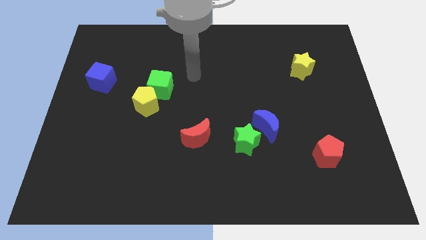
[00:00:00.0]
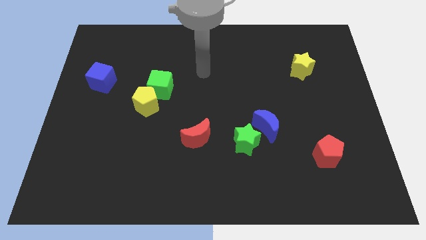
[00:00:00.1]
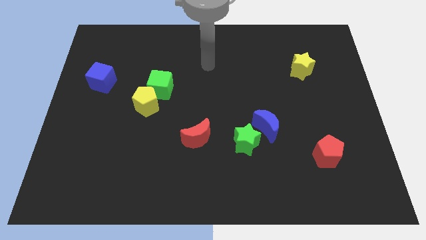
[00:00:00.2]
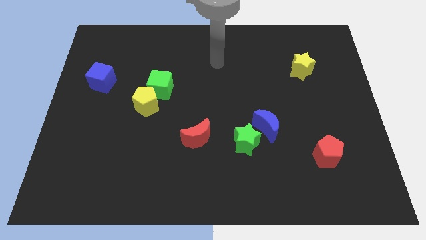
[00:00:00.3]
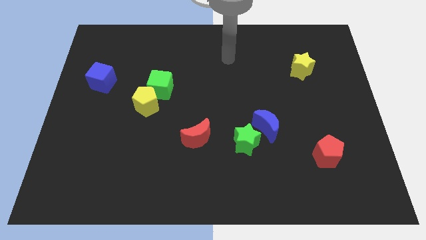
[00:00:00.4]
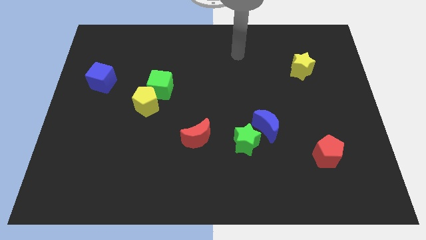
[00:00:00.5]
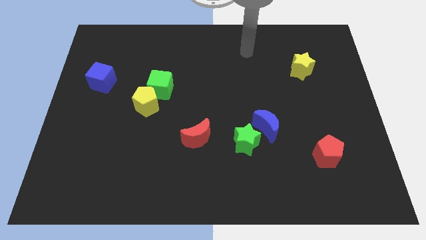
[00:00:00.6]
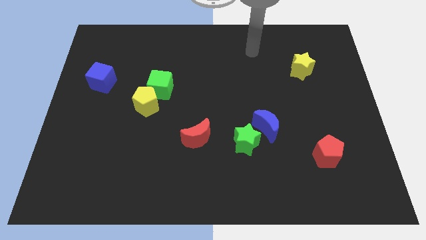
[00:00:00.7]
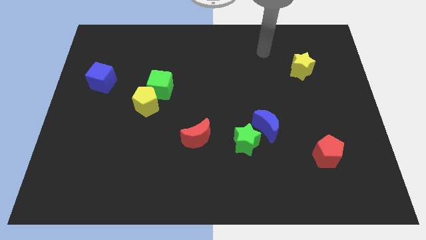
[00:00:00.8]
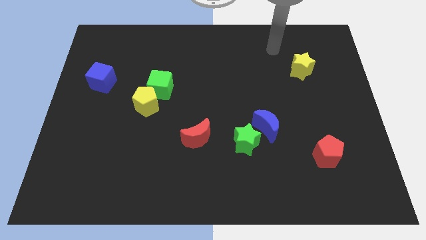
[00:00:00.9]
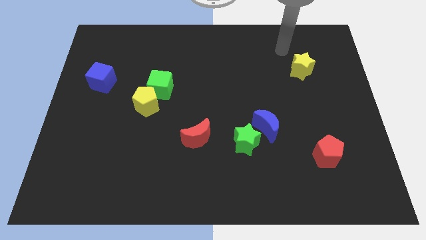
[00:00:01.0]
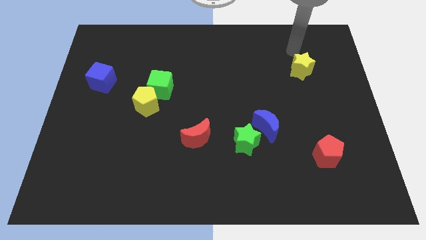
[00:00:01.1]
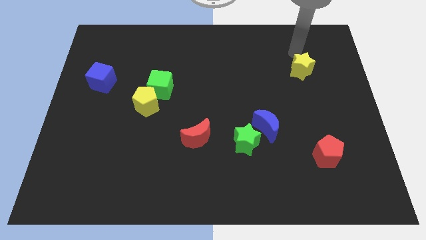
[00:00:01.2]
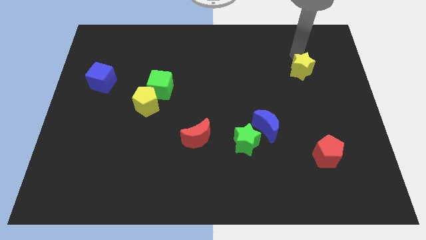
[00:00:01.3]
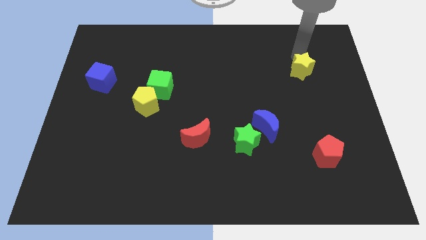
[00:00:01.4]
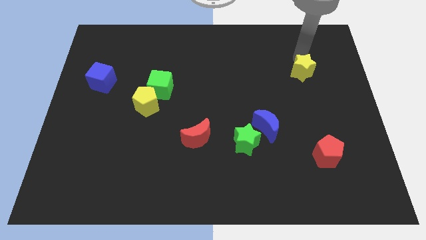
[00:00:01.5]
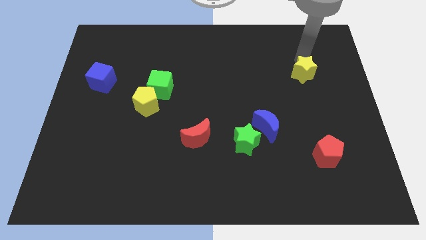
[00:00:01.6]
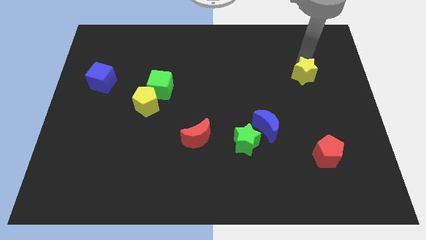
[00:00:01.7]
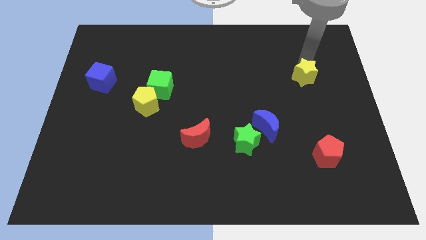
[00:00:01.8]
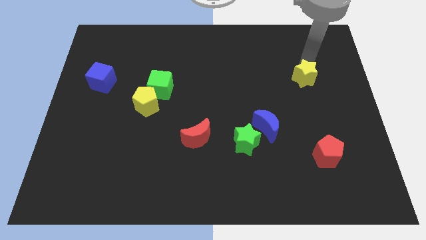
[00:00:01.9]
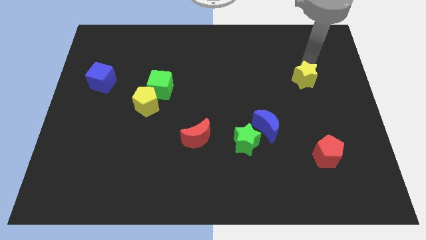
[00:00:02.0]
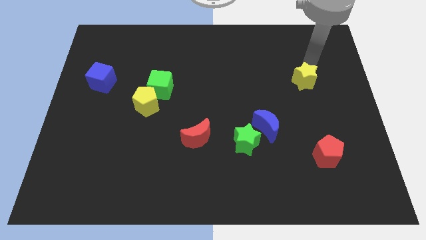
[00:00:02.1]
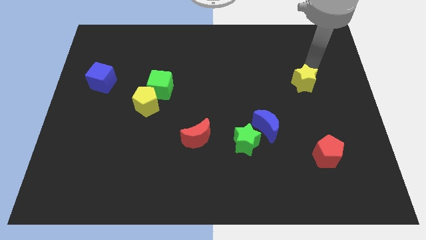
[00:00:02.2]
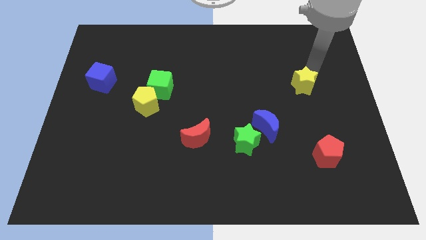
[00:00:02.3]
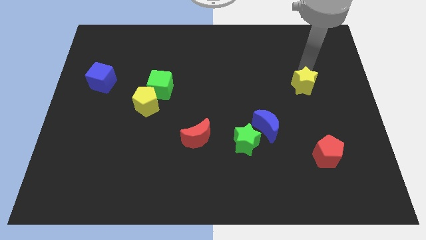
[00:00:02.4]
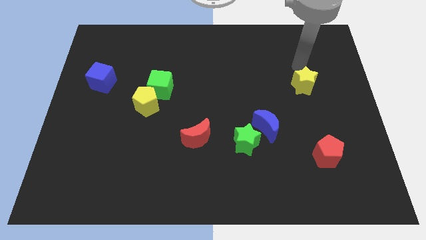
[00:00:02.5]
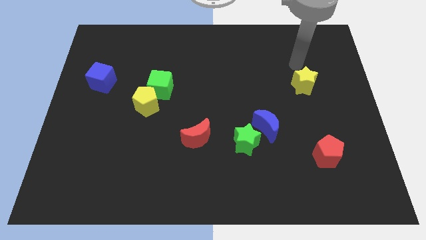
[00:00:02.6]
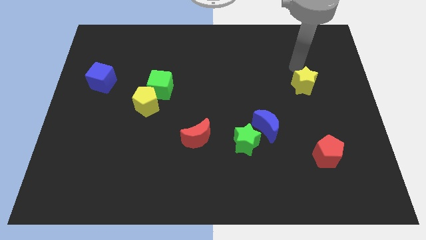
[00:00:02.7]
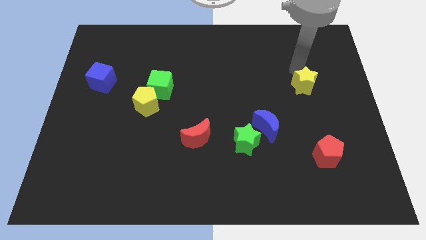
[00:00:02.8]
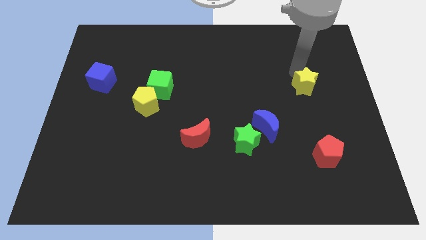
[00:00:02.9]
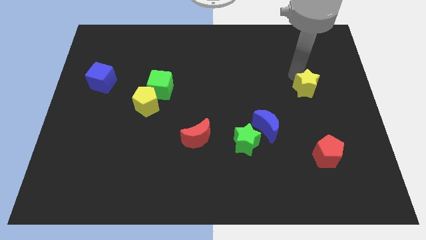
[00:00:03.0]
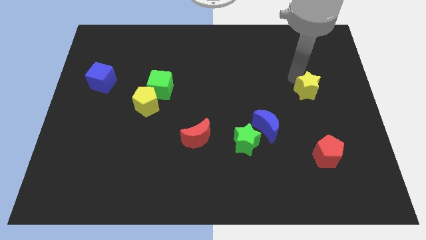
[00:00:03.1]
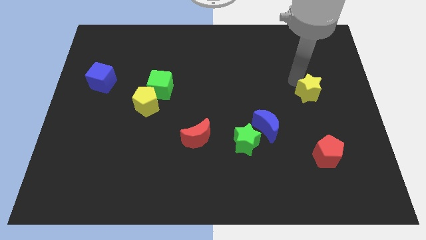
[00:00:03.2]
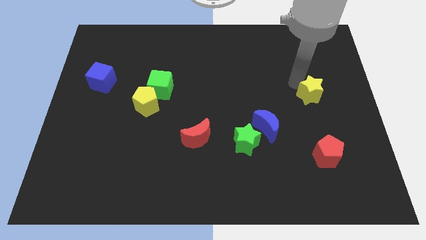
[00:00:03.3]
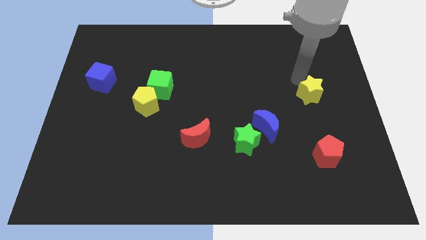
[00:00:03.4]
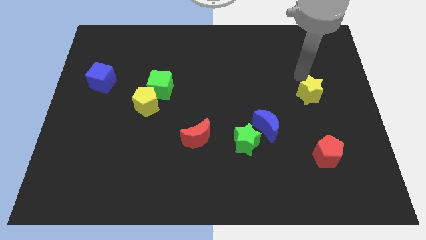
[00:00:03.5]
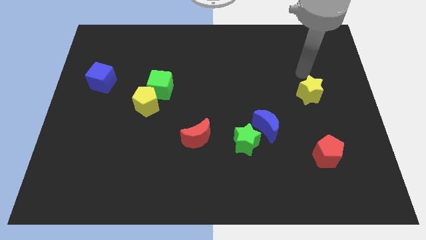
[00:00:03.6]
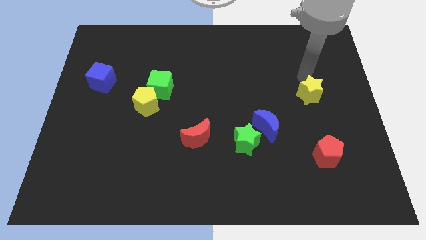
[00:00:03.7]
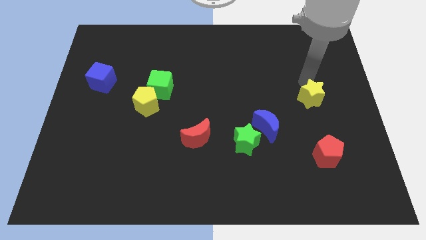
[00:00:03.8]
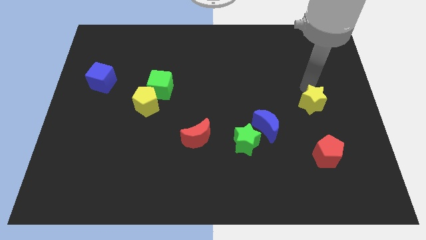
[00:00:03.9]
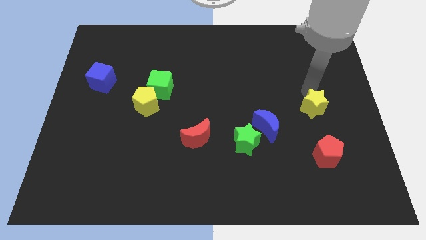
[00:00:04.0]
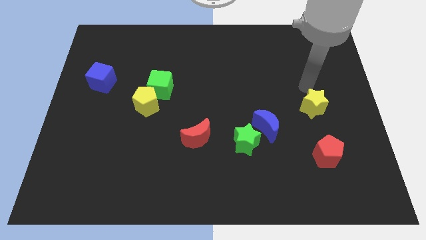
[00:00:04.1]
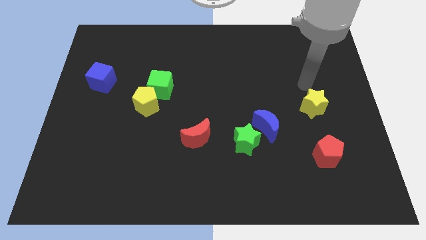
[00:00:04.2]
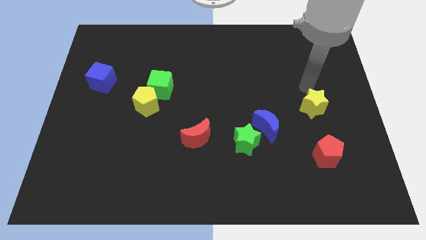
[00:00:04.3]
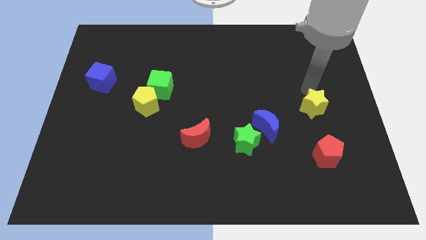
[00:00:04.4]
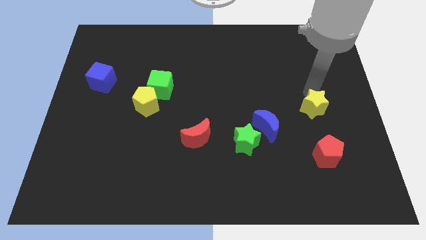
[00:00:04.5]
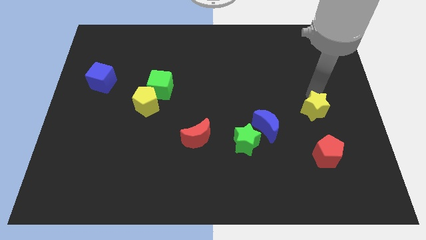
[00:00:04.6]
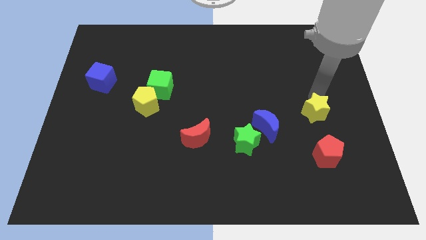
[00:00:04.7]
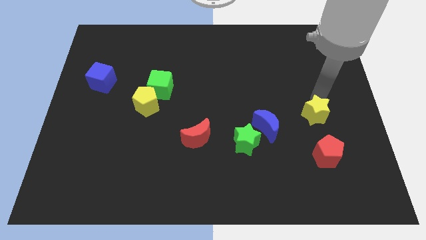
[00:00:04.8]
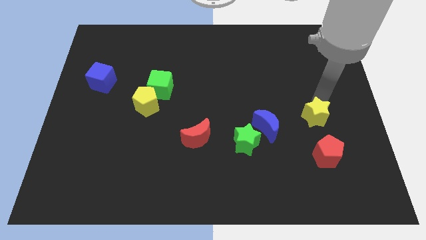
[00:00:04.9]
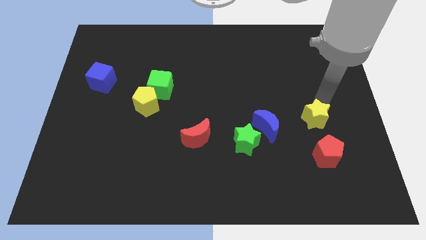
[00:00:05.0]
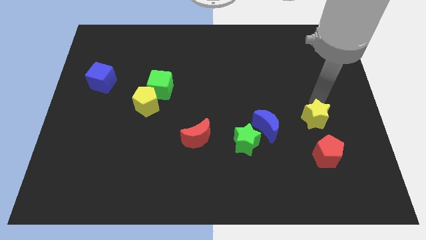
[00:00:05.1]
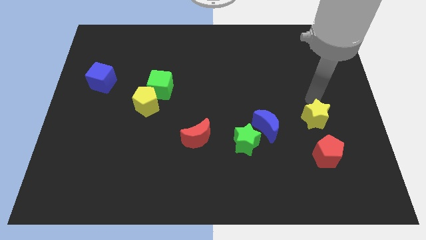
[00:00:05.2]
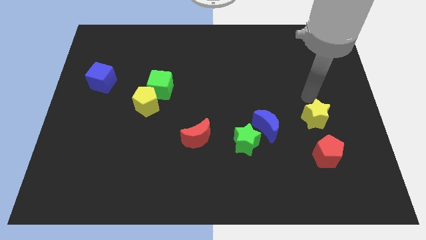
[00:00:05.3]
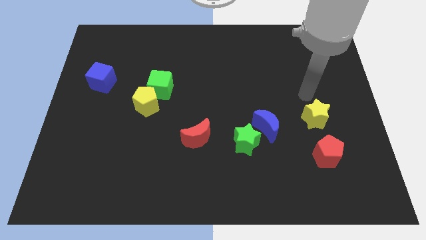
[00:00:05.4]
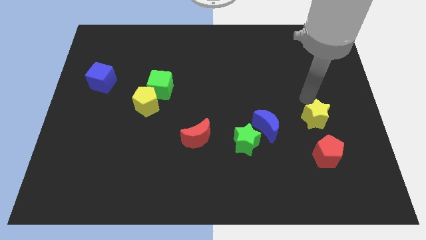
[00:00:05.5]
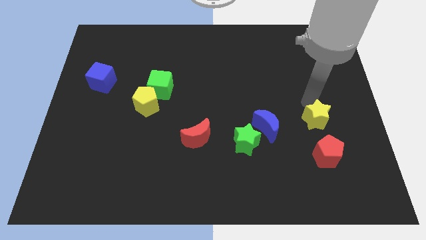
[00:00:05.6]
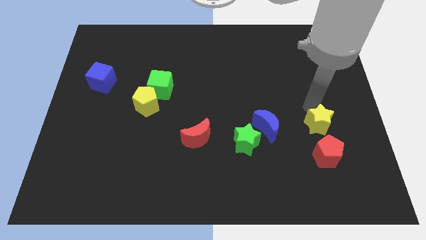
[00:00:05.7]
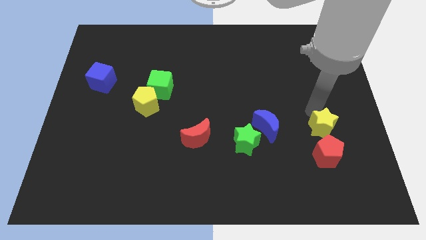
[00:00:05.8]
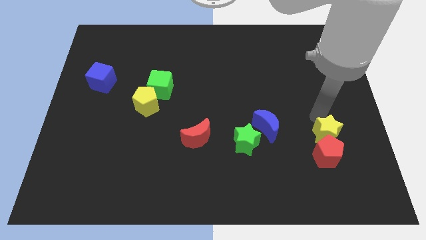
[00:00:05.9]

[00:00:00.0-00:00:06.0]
push the yellow star next to the red pentagon

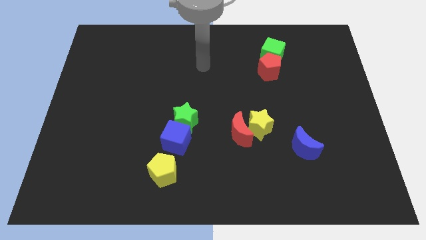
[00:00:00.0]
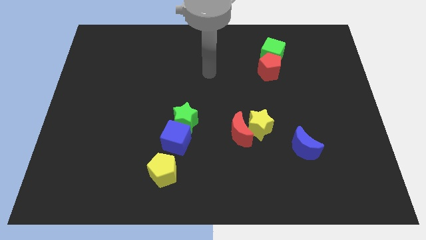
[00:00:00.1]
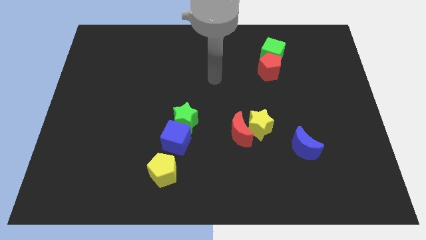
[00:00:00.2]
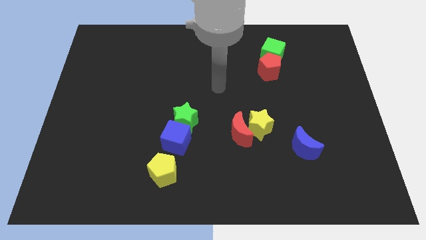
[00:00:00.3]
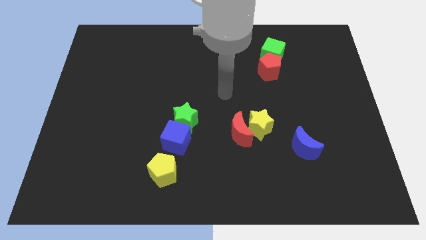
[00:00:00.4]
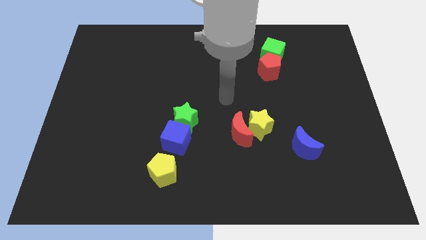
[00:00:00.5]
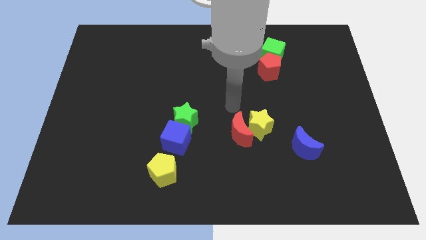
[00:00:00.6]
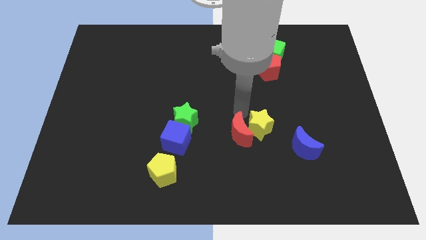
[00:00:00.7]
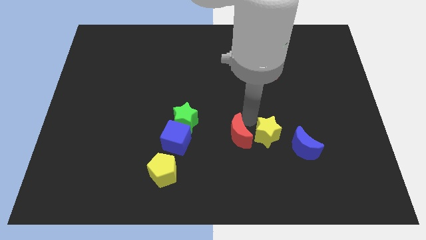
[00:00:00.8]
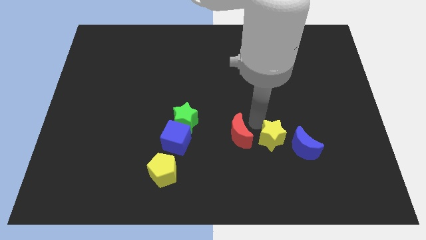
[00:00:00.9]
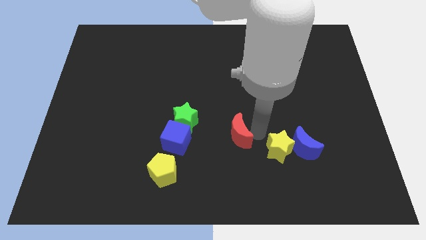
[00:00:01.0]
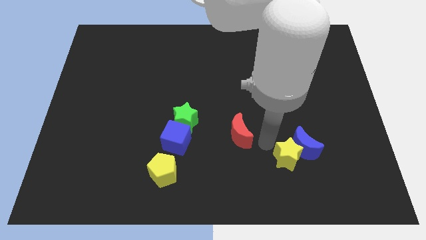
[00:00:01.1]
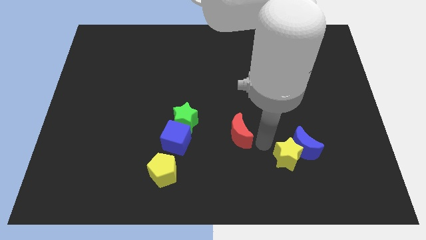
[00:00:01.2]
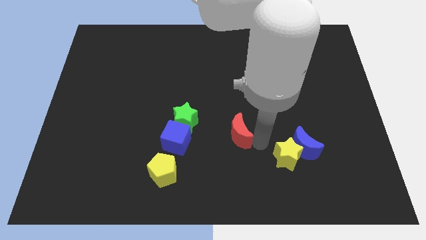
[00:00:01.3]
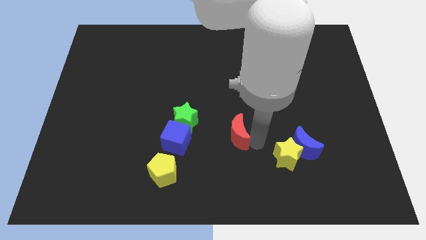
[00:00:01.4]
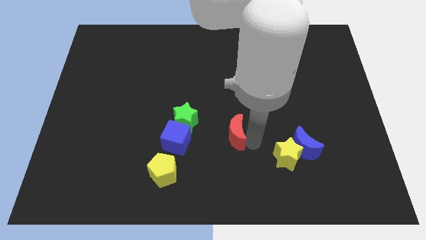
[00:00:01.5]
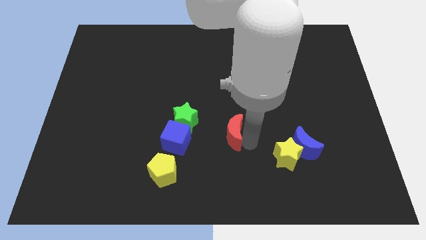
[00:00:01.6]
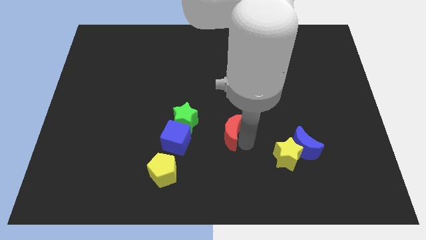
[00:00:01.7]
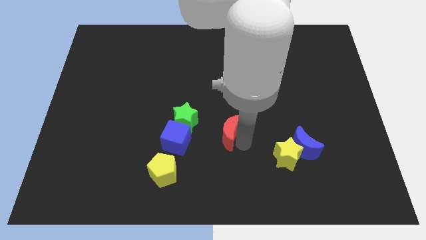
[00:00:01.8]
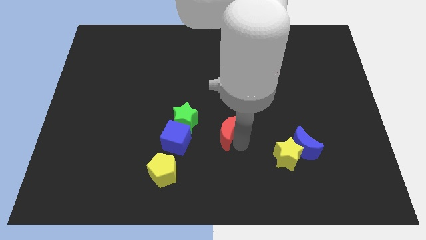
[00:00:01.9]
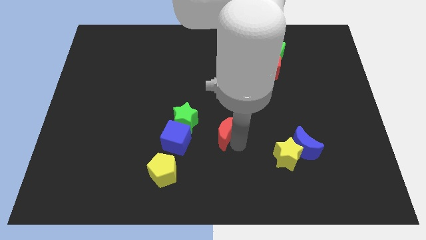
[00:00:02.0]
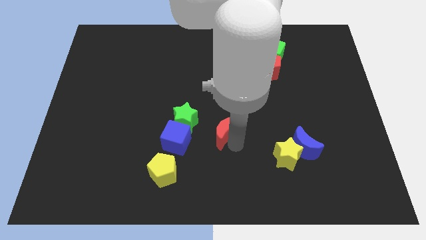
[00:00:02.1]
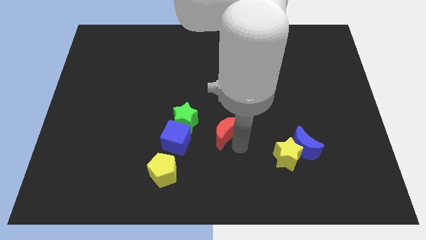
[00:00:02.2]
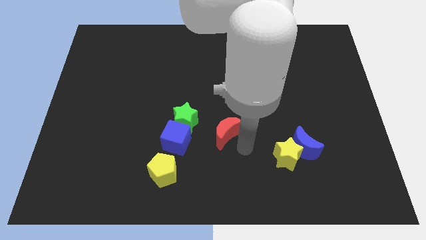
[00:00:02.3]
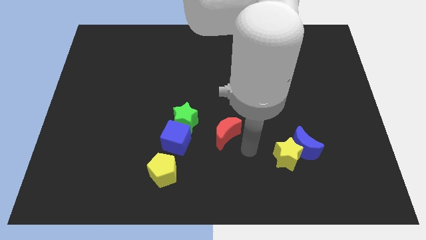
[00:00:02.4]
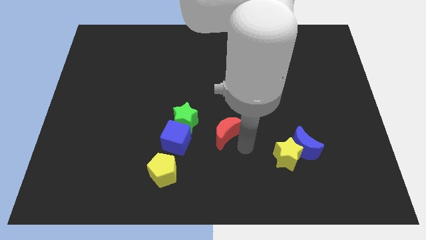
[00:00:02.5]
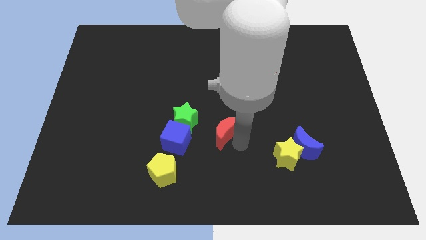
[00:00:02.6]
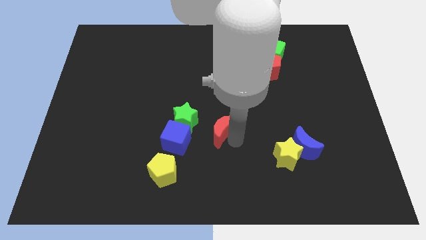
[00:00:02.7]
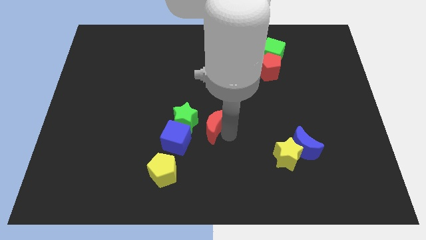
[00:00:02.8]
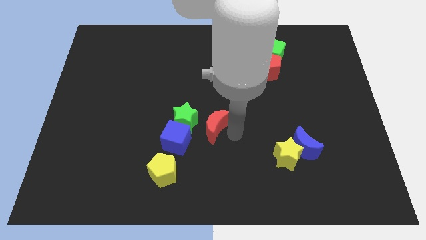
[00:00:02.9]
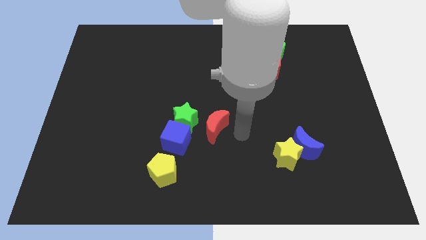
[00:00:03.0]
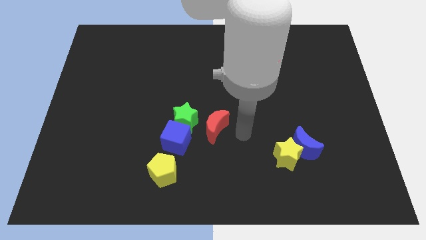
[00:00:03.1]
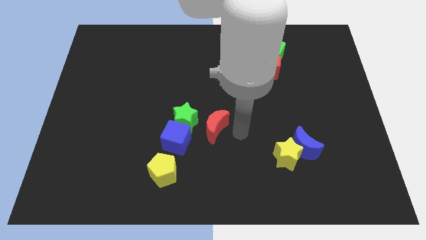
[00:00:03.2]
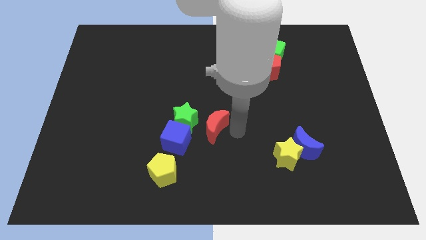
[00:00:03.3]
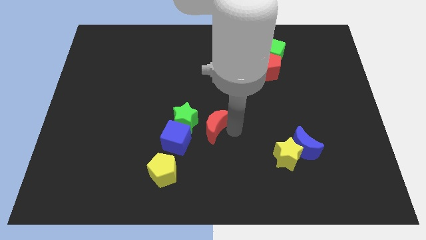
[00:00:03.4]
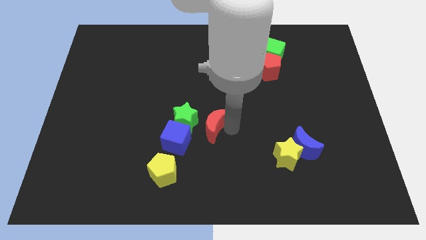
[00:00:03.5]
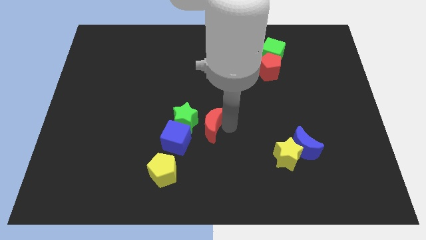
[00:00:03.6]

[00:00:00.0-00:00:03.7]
move the red moon to the green star
